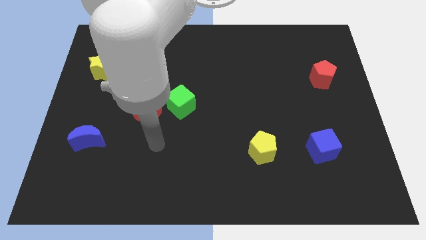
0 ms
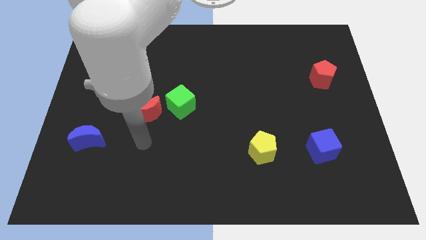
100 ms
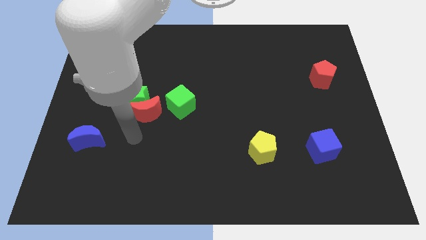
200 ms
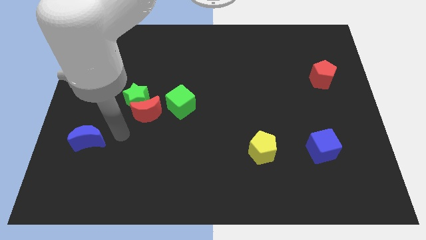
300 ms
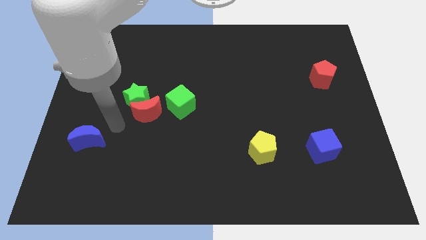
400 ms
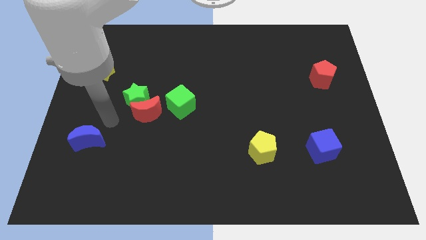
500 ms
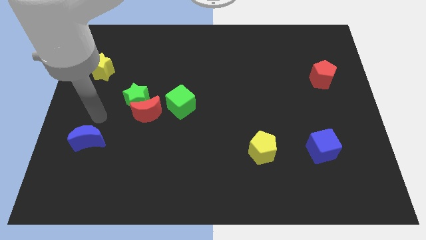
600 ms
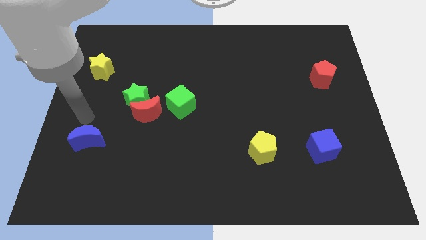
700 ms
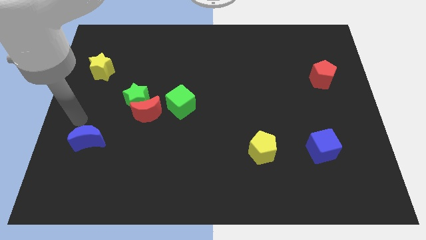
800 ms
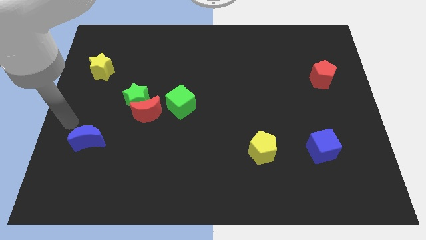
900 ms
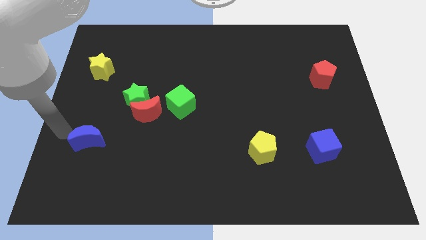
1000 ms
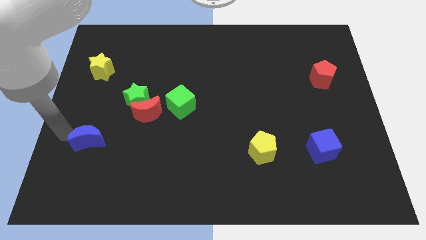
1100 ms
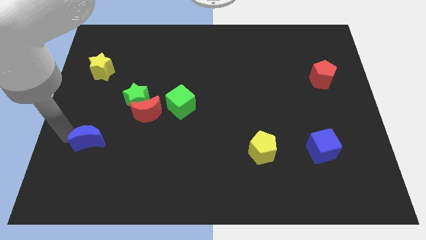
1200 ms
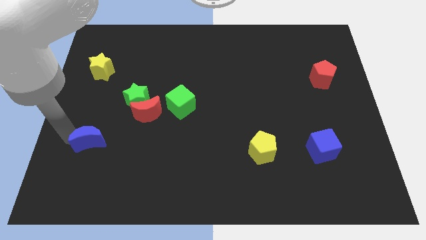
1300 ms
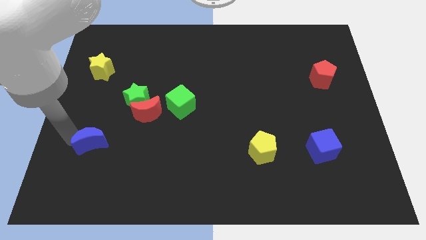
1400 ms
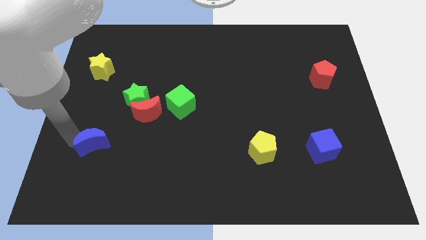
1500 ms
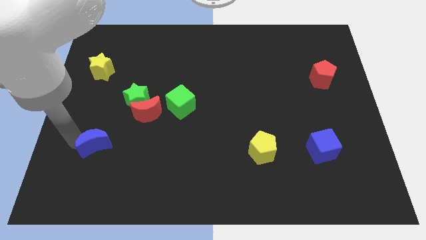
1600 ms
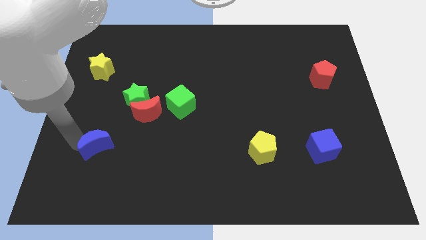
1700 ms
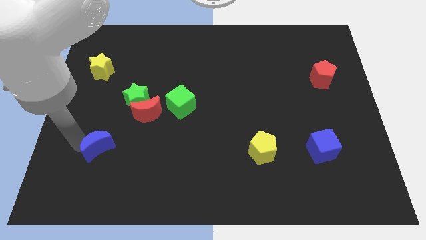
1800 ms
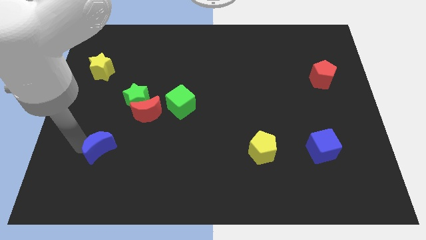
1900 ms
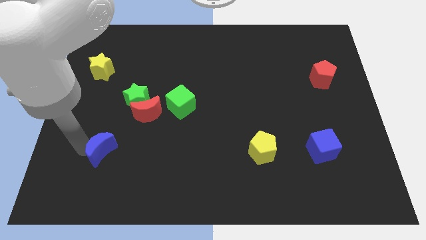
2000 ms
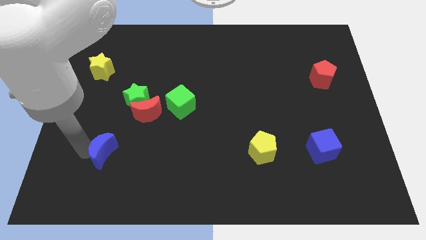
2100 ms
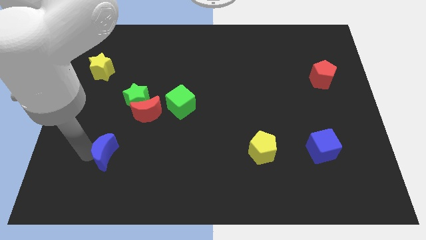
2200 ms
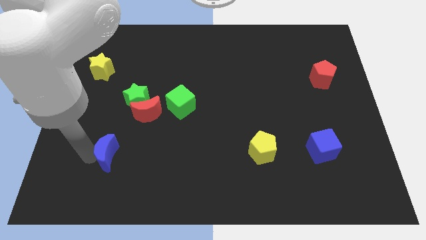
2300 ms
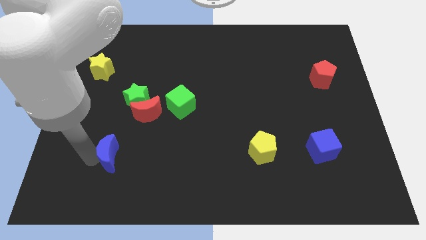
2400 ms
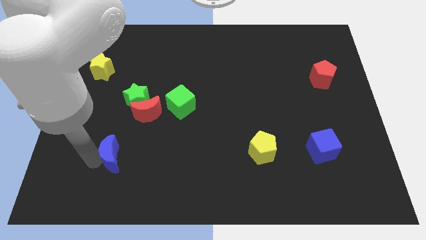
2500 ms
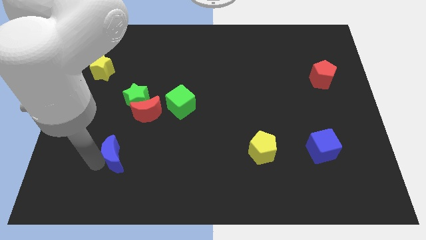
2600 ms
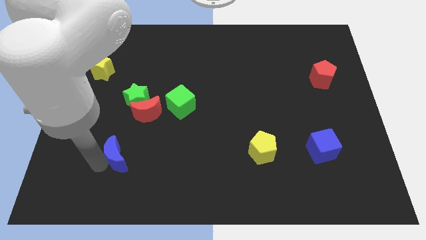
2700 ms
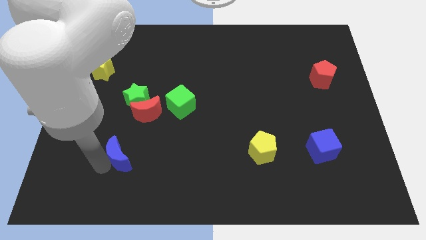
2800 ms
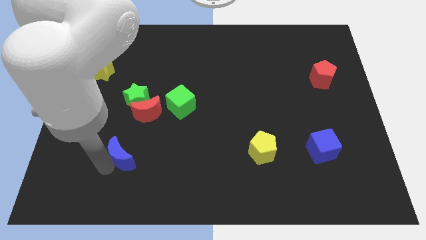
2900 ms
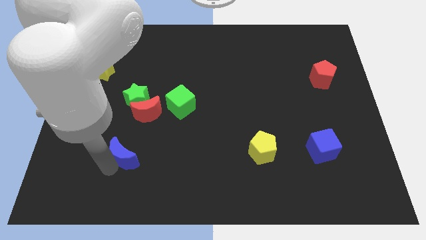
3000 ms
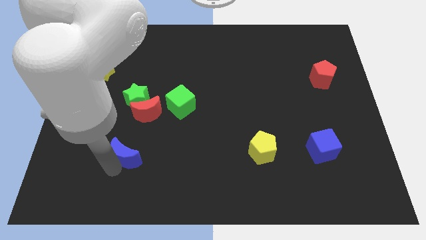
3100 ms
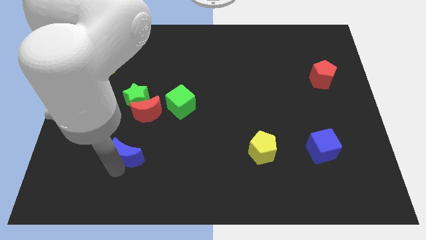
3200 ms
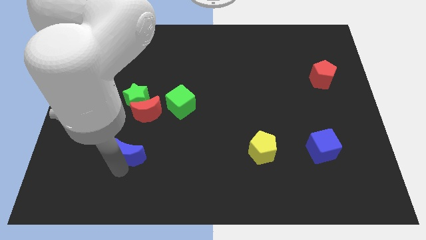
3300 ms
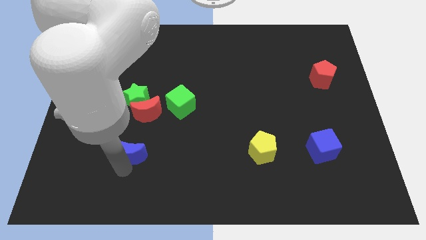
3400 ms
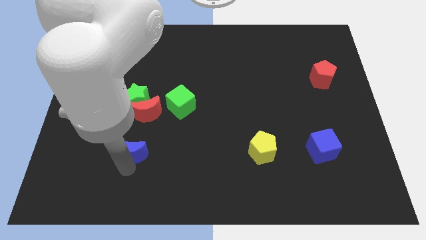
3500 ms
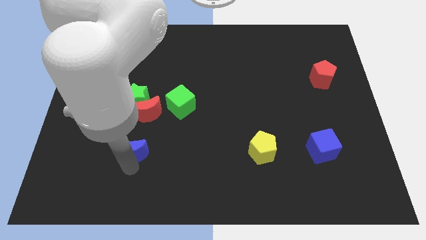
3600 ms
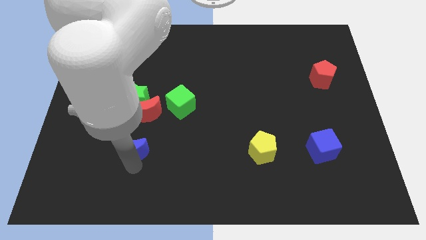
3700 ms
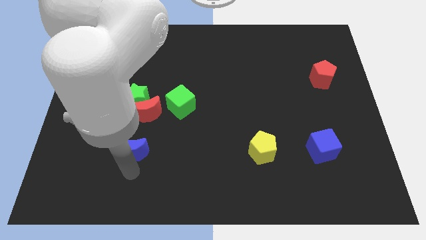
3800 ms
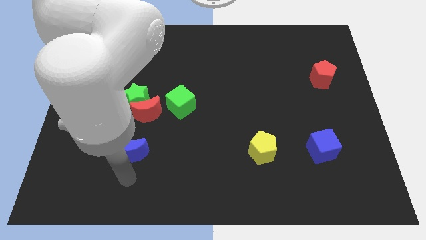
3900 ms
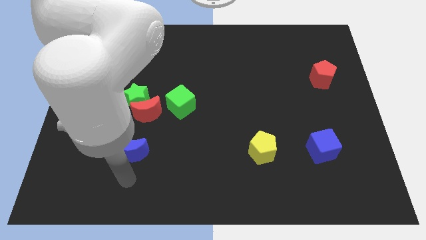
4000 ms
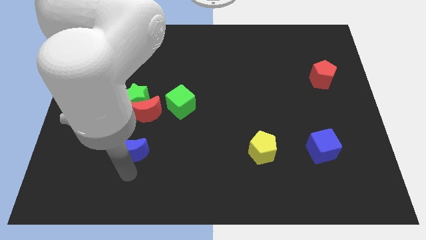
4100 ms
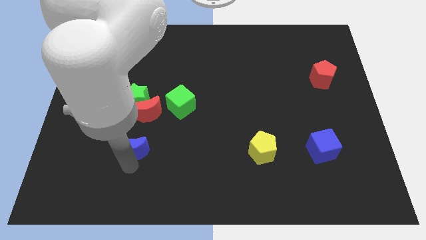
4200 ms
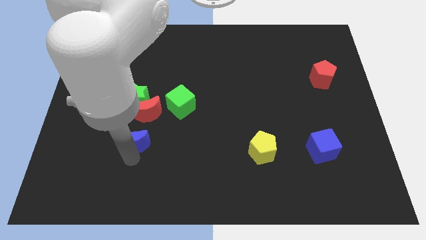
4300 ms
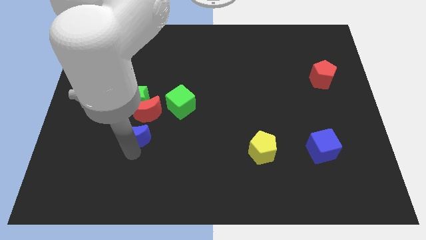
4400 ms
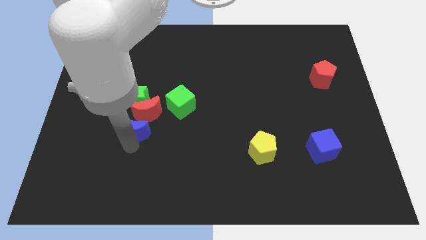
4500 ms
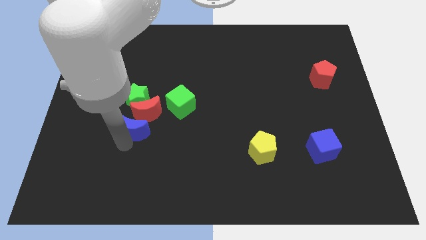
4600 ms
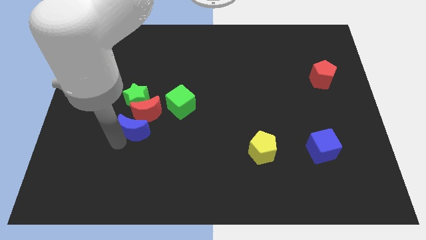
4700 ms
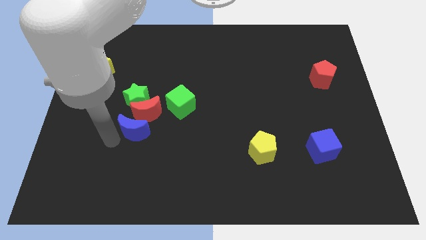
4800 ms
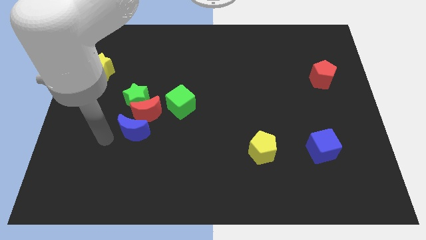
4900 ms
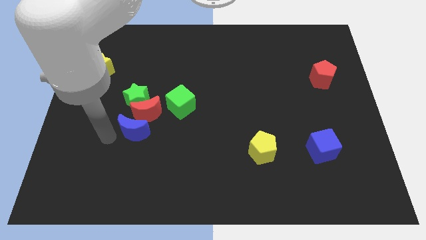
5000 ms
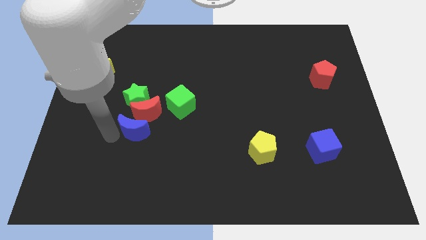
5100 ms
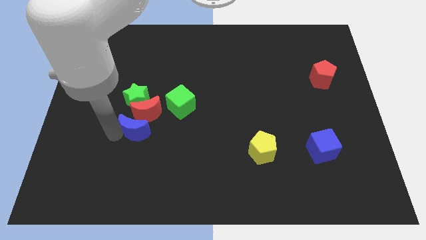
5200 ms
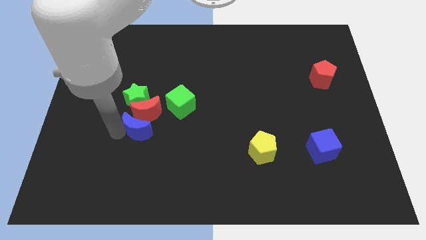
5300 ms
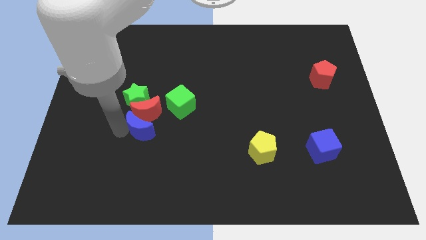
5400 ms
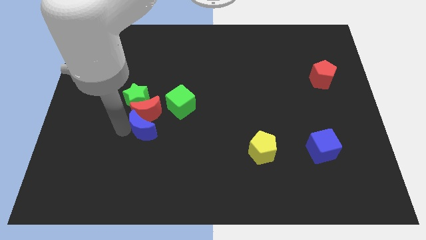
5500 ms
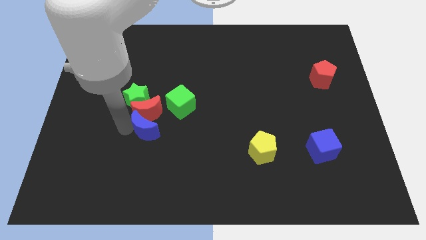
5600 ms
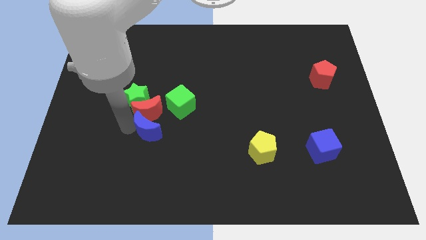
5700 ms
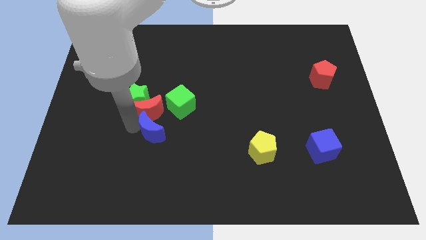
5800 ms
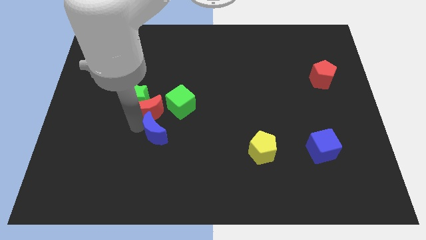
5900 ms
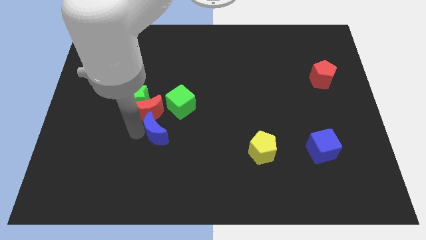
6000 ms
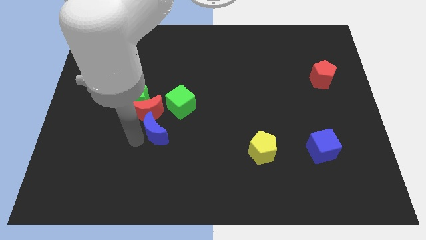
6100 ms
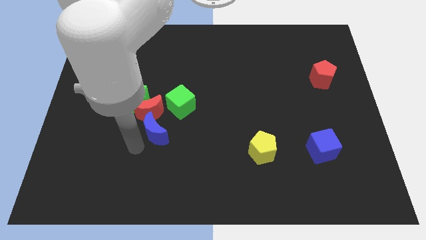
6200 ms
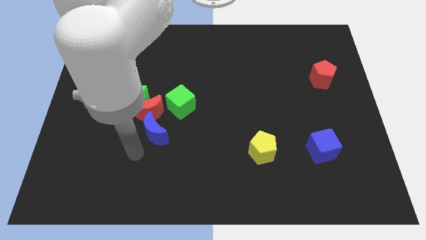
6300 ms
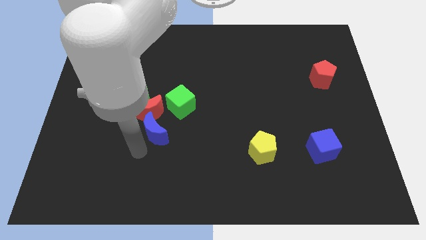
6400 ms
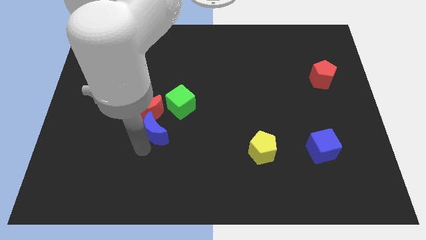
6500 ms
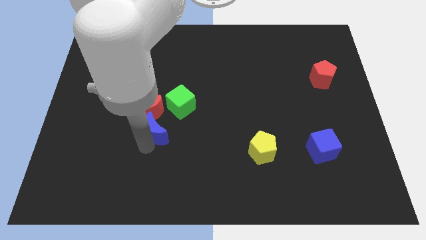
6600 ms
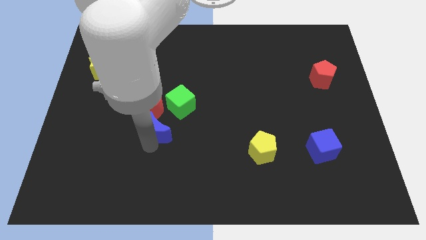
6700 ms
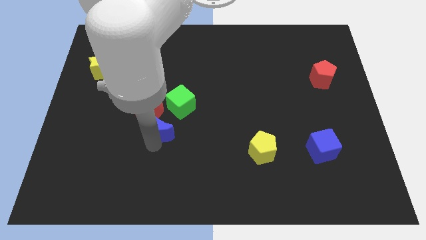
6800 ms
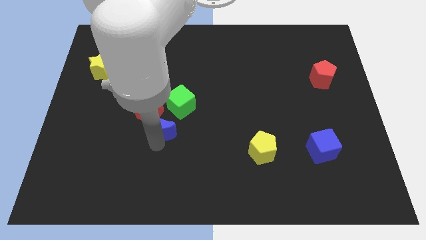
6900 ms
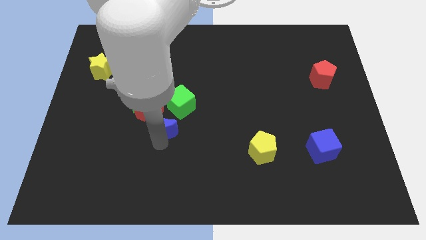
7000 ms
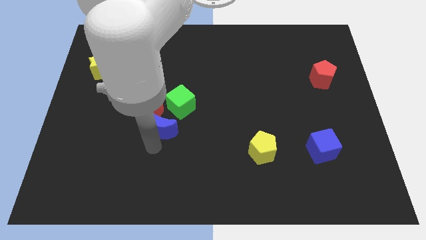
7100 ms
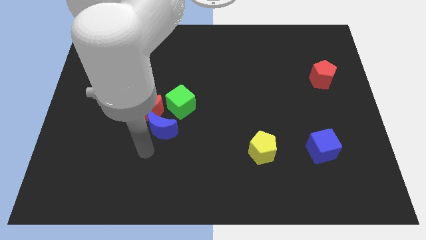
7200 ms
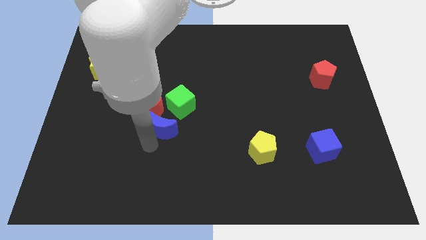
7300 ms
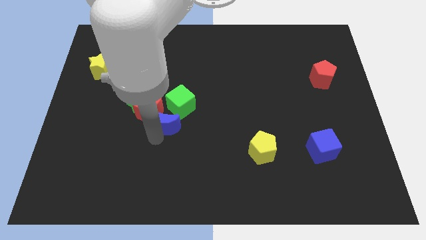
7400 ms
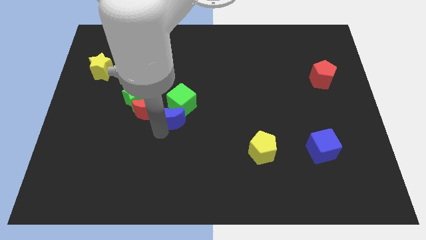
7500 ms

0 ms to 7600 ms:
slide the blue moon close to the green cube
